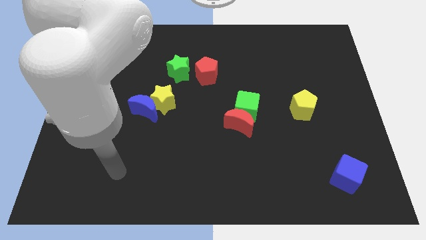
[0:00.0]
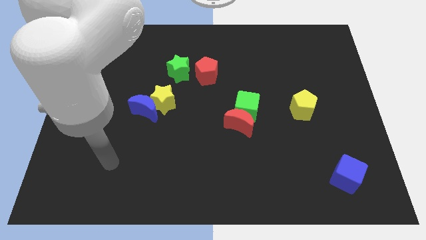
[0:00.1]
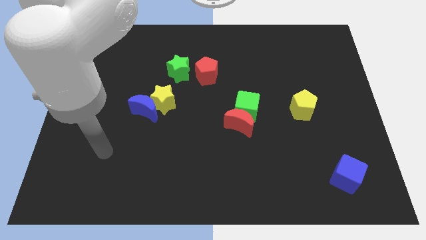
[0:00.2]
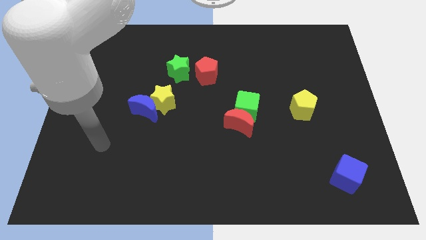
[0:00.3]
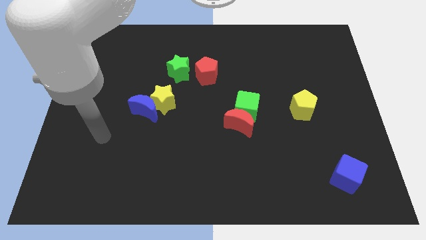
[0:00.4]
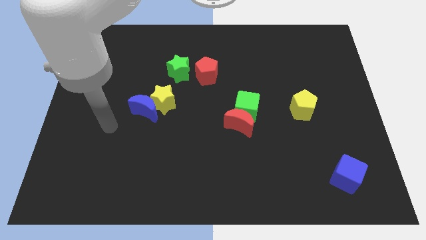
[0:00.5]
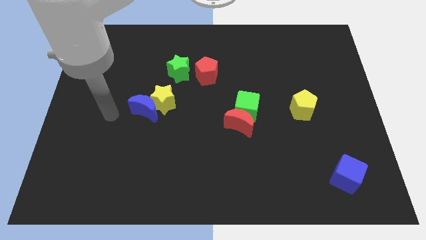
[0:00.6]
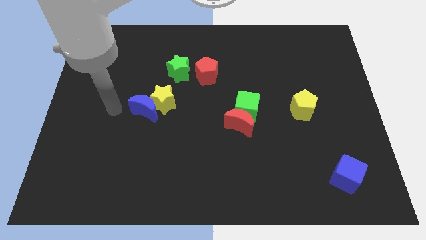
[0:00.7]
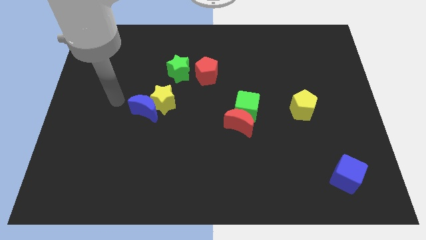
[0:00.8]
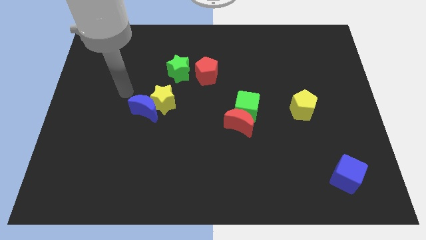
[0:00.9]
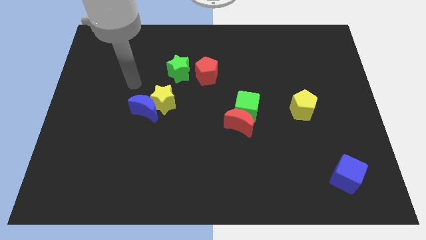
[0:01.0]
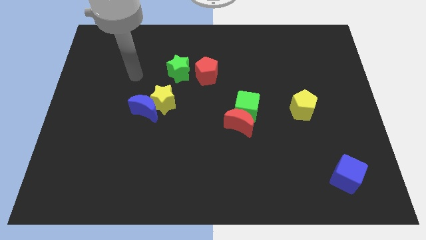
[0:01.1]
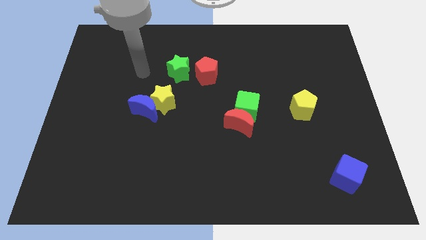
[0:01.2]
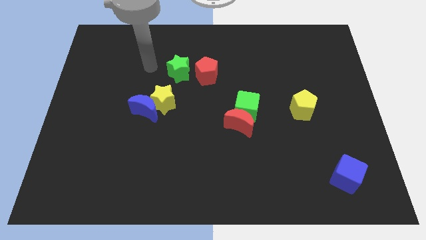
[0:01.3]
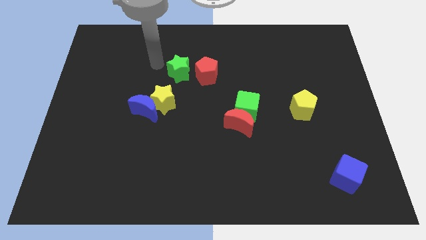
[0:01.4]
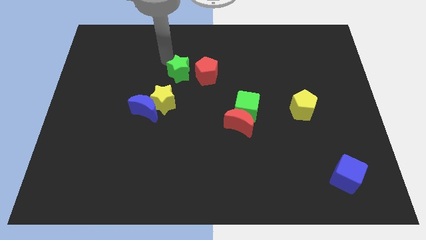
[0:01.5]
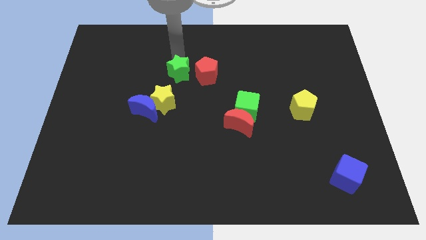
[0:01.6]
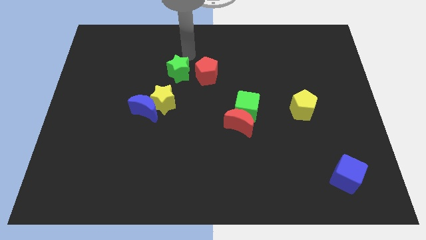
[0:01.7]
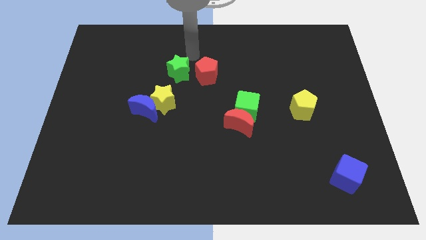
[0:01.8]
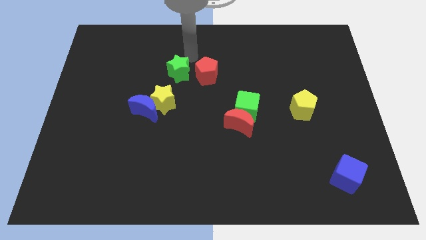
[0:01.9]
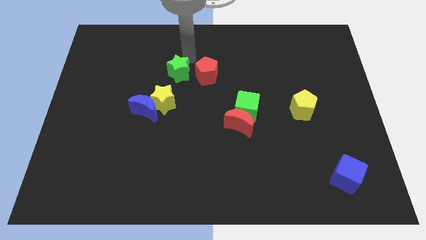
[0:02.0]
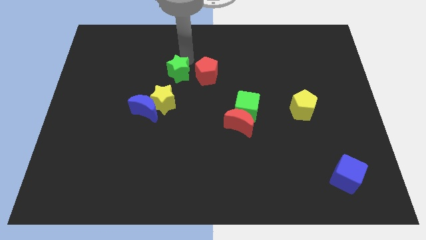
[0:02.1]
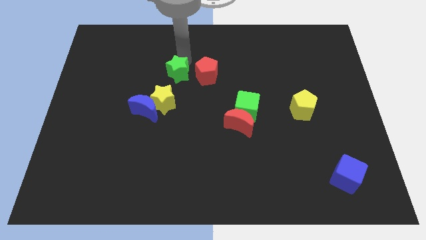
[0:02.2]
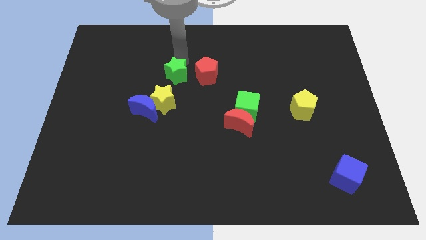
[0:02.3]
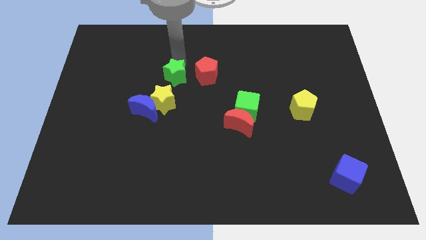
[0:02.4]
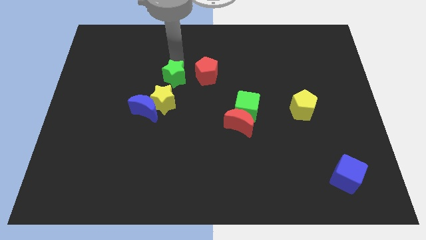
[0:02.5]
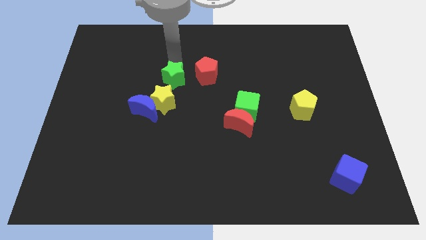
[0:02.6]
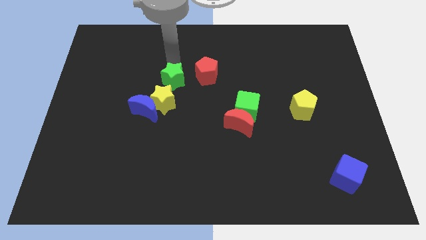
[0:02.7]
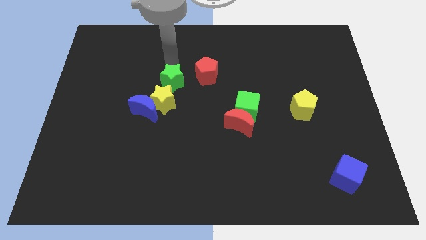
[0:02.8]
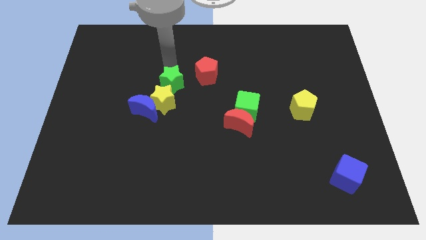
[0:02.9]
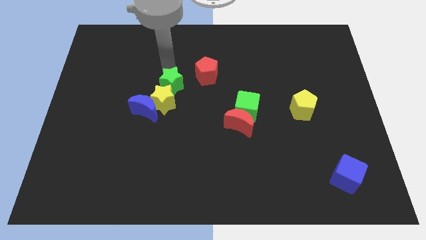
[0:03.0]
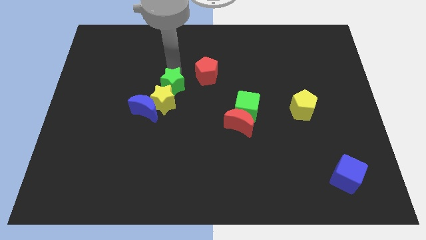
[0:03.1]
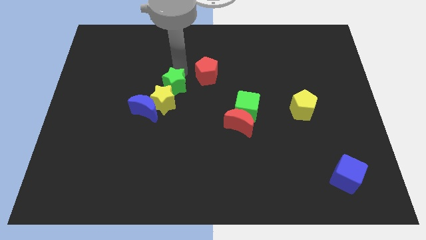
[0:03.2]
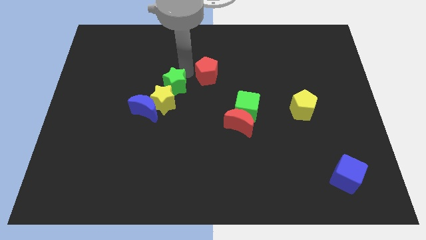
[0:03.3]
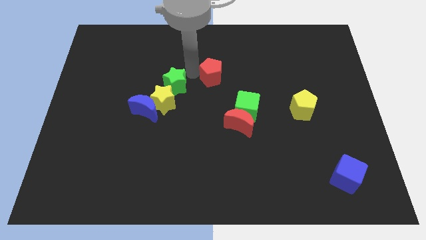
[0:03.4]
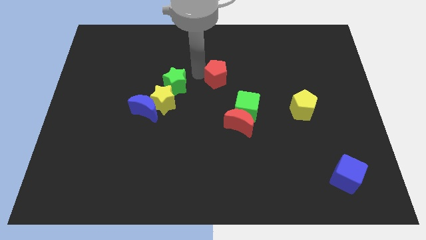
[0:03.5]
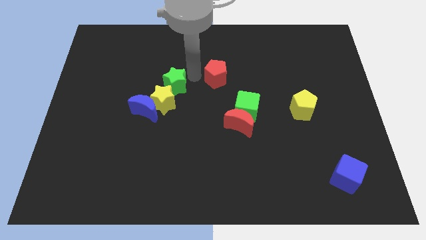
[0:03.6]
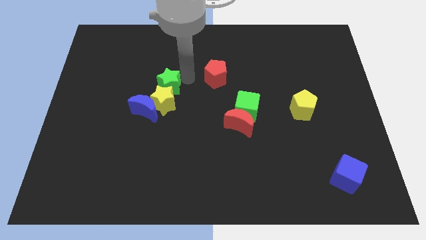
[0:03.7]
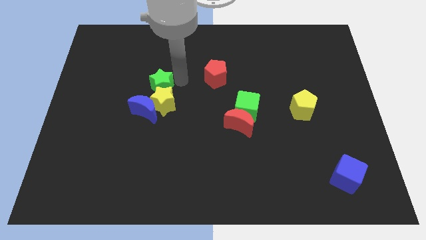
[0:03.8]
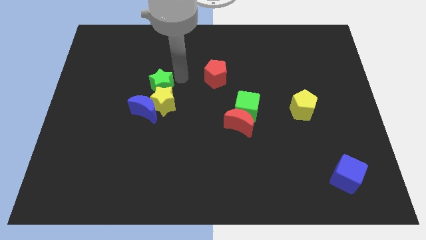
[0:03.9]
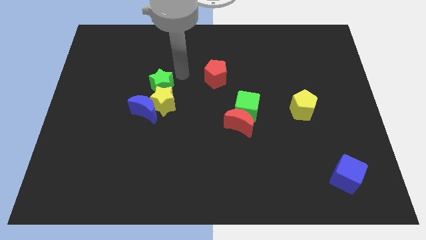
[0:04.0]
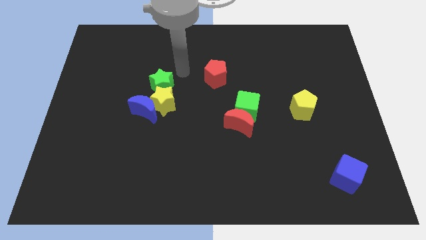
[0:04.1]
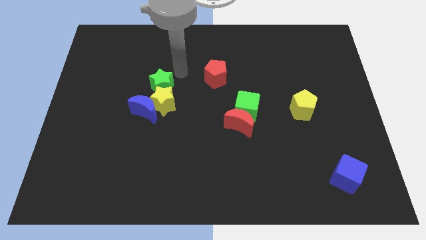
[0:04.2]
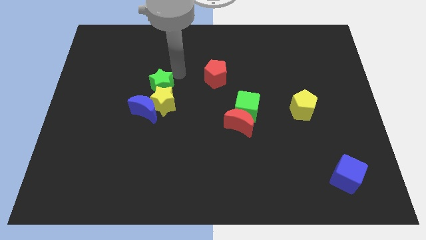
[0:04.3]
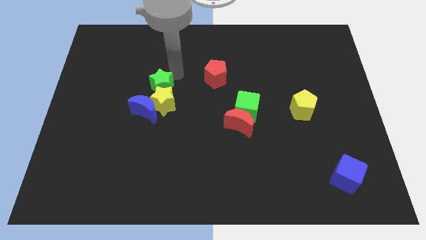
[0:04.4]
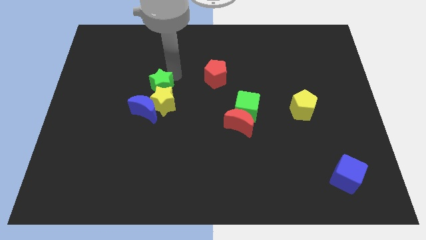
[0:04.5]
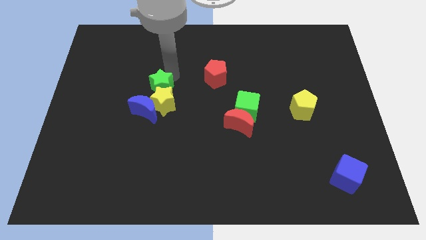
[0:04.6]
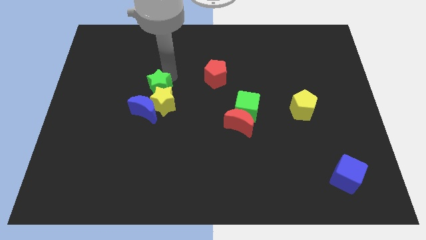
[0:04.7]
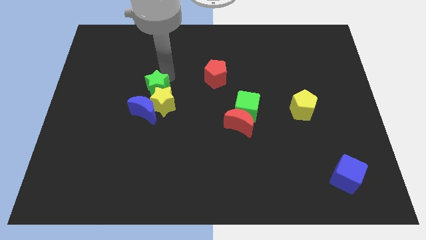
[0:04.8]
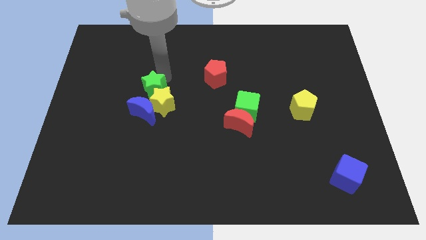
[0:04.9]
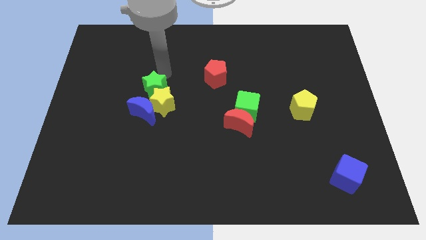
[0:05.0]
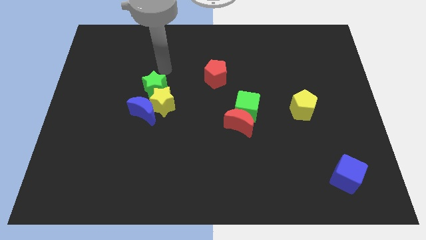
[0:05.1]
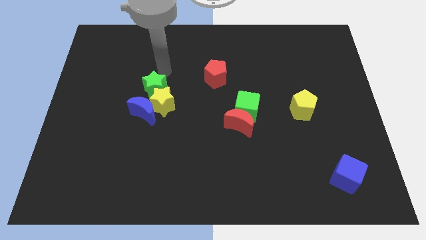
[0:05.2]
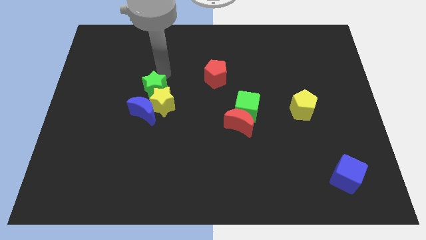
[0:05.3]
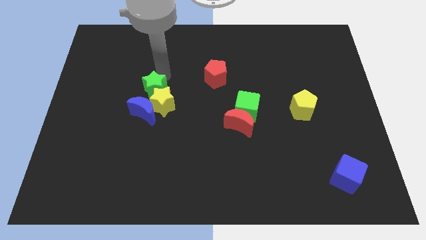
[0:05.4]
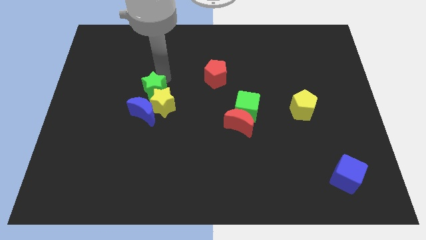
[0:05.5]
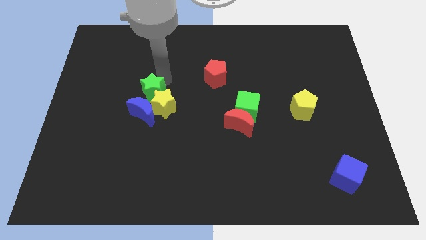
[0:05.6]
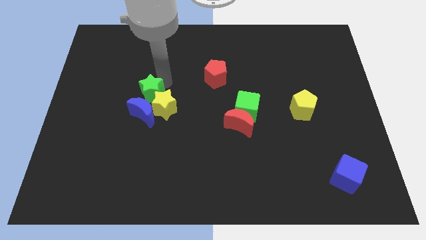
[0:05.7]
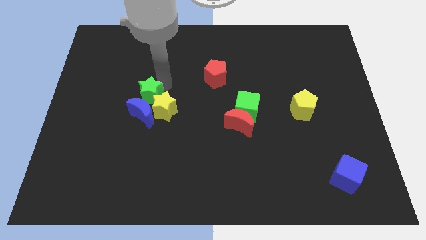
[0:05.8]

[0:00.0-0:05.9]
move the green star close to the blue moon

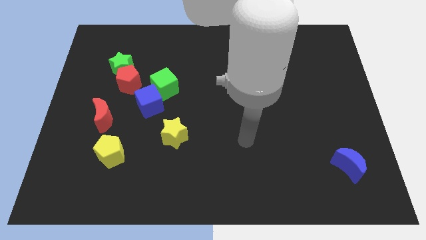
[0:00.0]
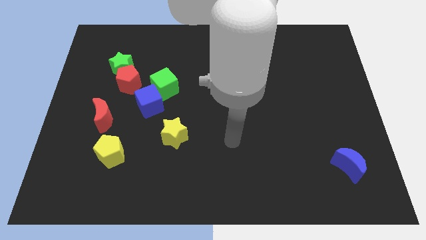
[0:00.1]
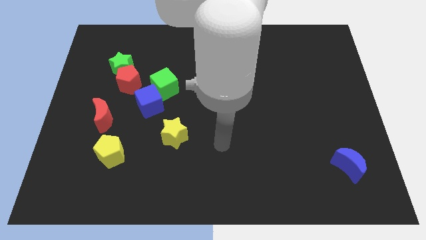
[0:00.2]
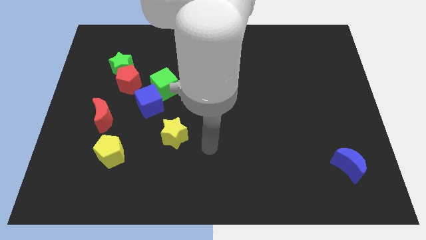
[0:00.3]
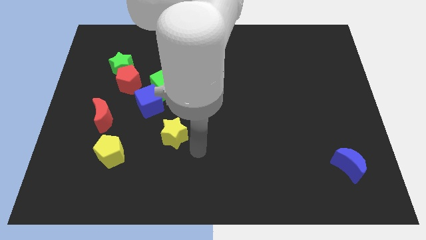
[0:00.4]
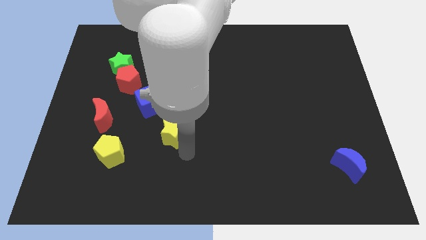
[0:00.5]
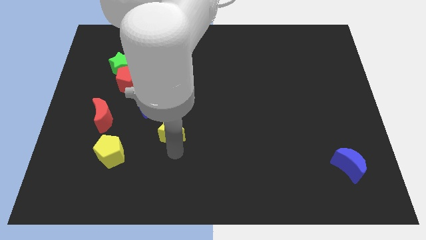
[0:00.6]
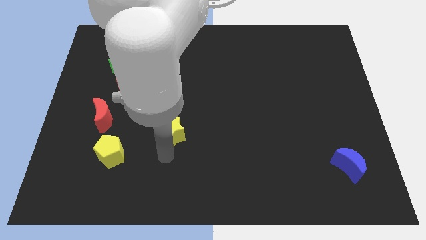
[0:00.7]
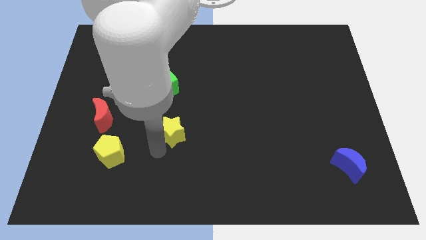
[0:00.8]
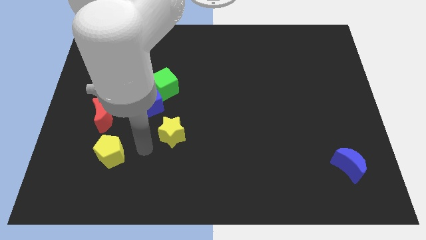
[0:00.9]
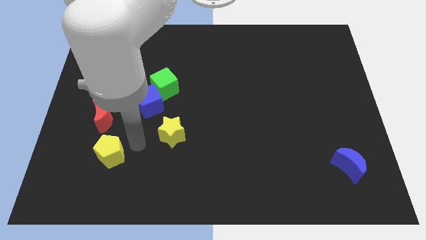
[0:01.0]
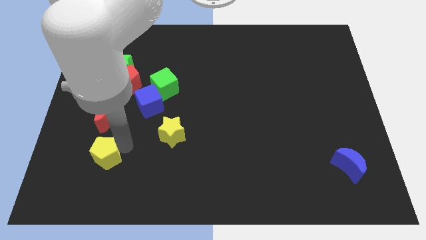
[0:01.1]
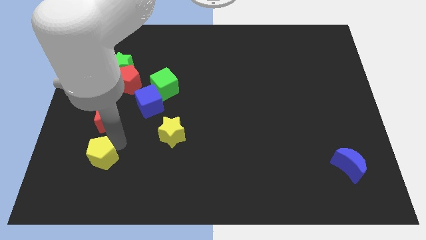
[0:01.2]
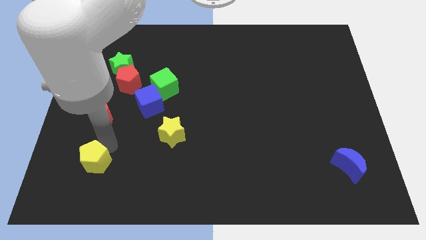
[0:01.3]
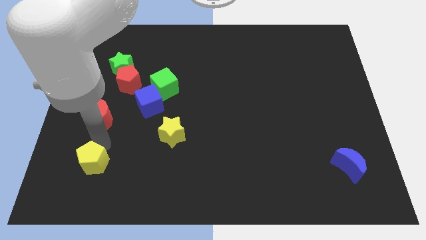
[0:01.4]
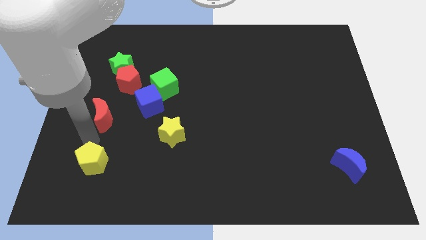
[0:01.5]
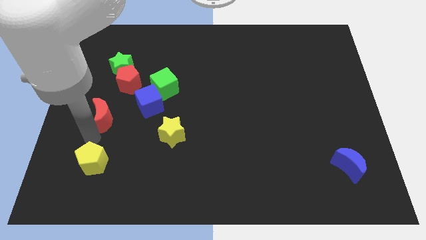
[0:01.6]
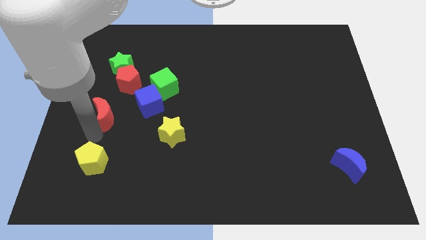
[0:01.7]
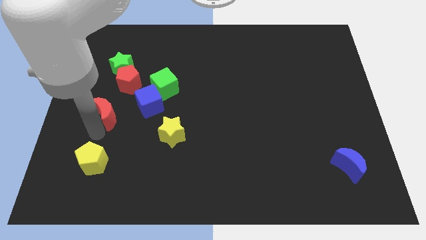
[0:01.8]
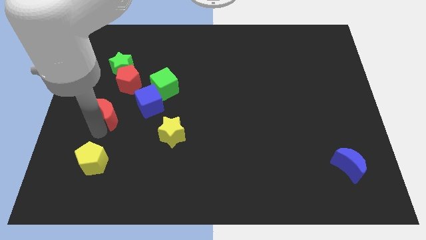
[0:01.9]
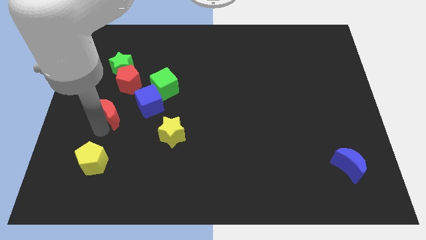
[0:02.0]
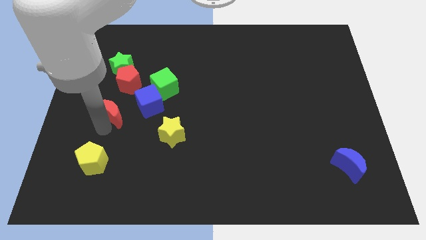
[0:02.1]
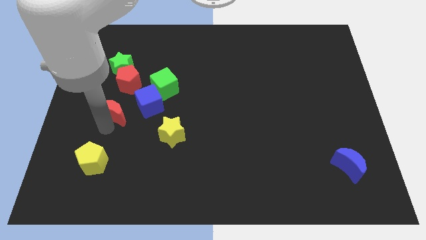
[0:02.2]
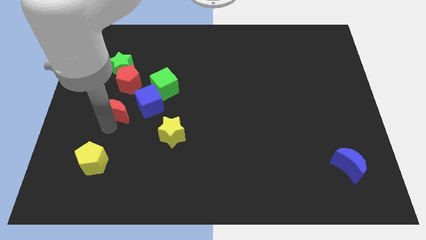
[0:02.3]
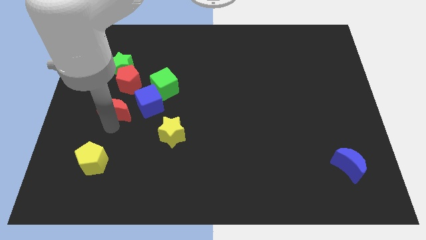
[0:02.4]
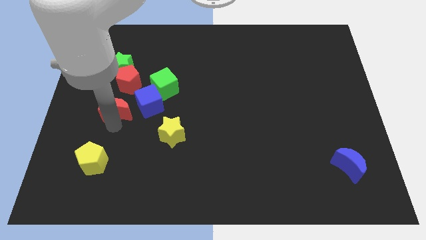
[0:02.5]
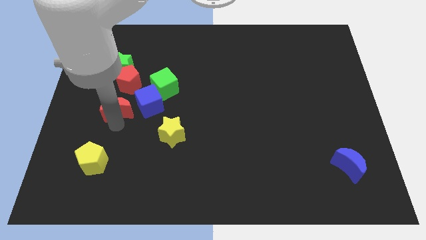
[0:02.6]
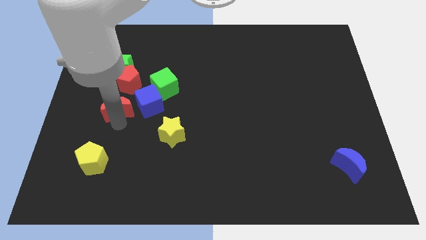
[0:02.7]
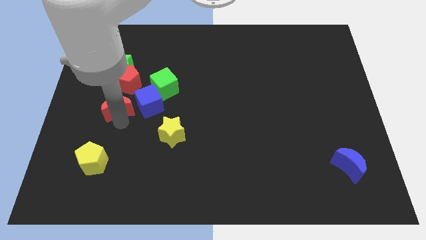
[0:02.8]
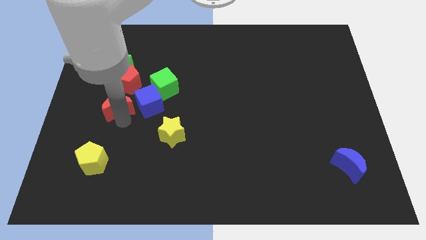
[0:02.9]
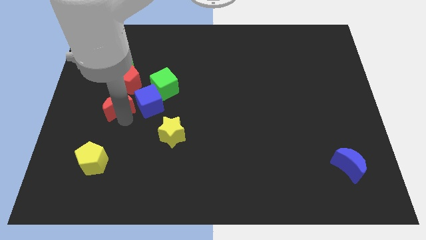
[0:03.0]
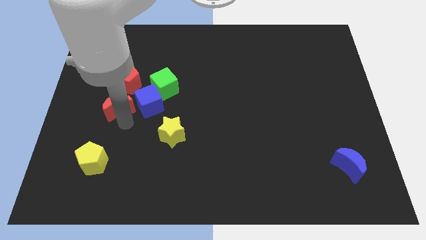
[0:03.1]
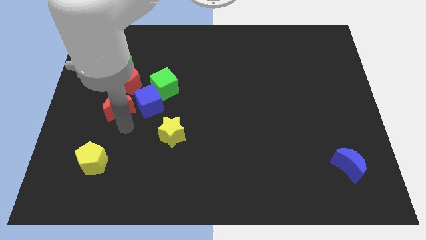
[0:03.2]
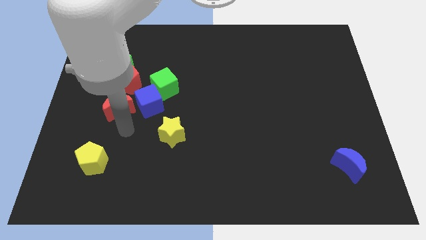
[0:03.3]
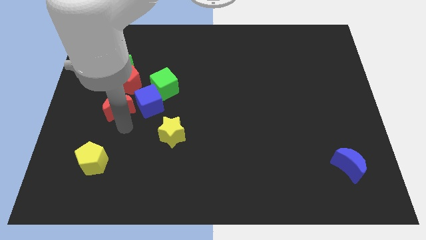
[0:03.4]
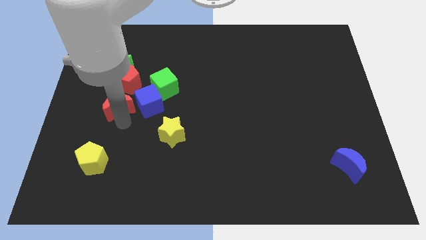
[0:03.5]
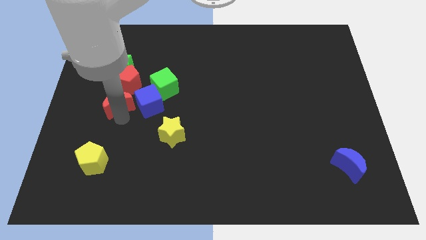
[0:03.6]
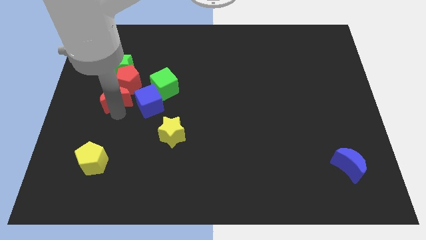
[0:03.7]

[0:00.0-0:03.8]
slide the red moon towards the red pentagon
